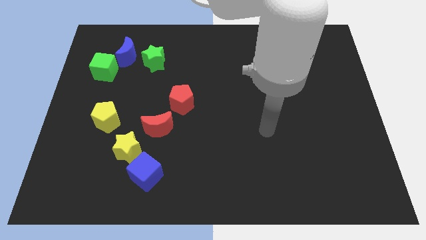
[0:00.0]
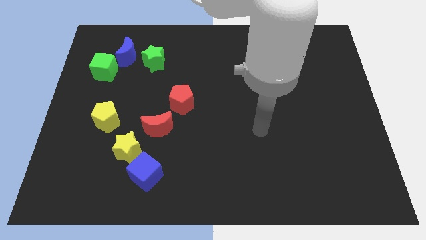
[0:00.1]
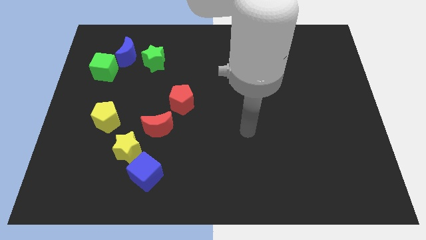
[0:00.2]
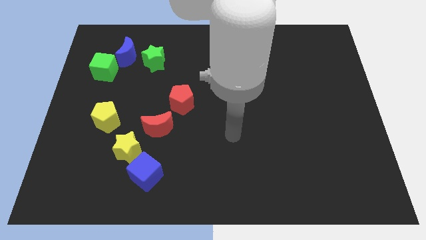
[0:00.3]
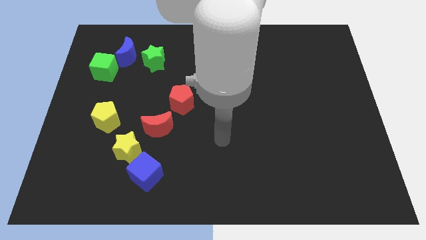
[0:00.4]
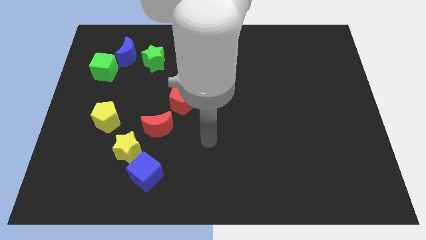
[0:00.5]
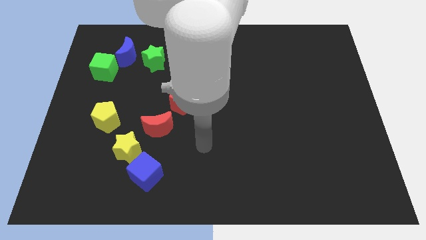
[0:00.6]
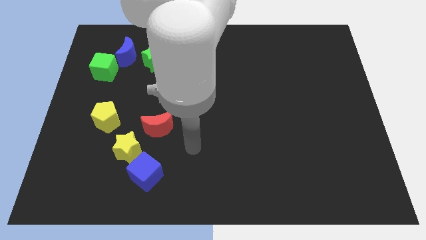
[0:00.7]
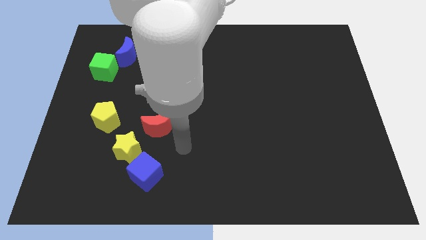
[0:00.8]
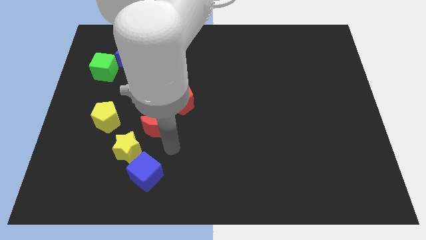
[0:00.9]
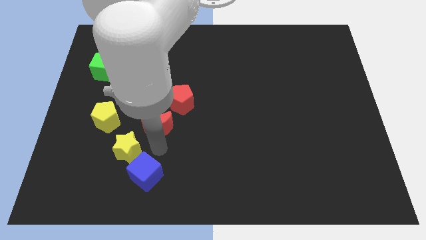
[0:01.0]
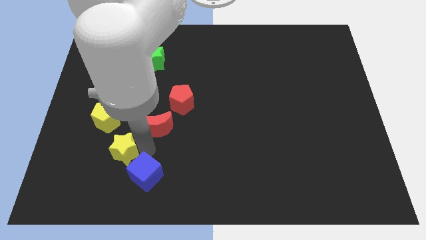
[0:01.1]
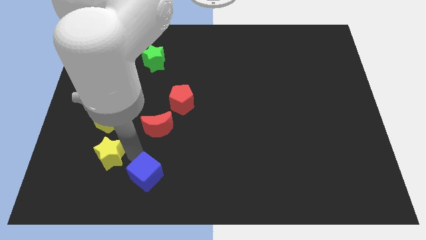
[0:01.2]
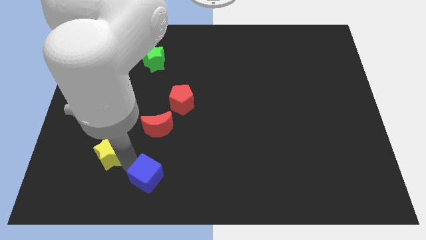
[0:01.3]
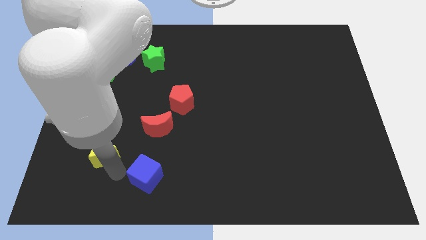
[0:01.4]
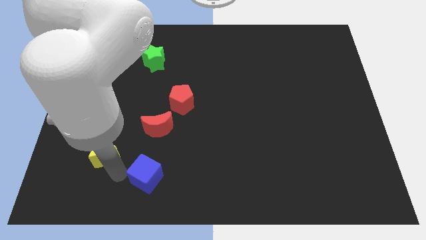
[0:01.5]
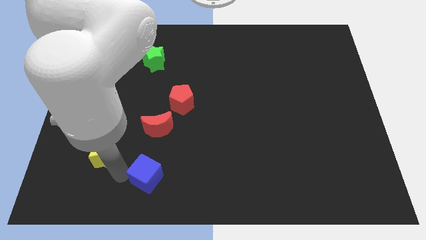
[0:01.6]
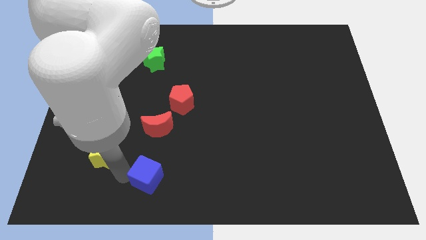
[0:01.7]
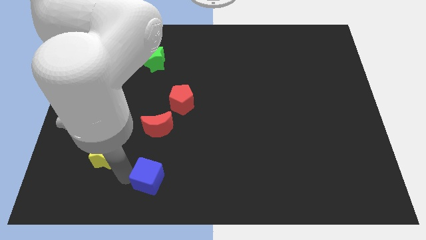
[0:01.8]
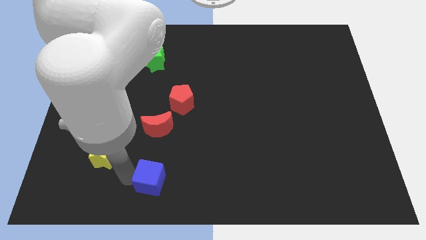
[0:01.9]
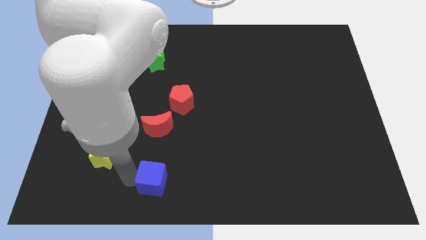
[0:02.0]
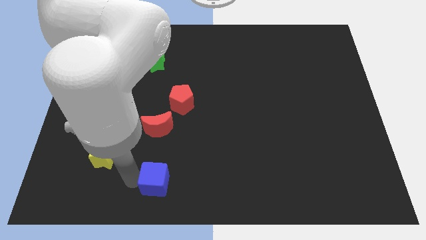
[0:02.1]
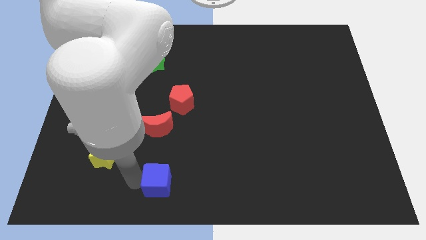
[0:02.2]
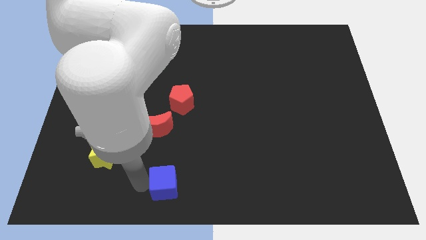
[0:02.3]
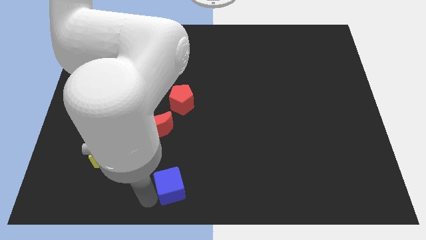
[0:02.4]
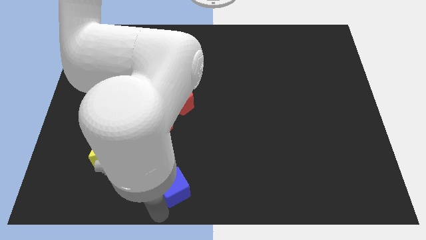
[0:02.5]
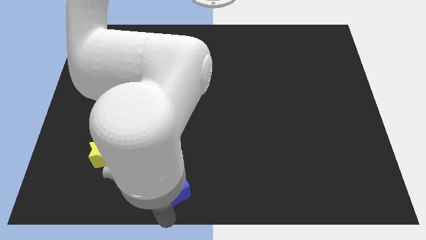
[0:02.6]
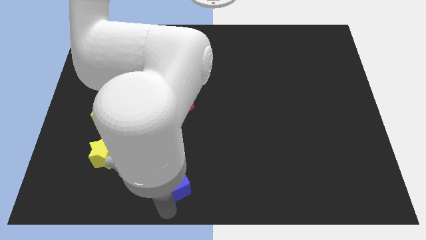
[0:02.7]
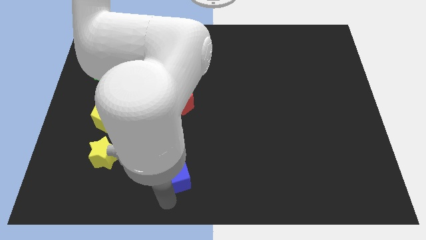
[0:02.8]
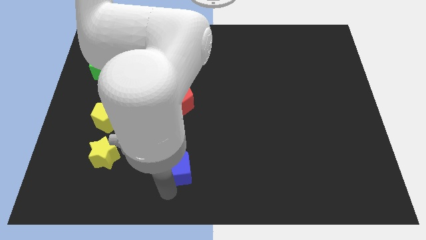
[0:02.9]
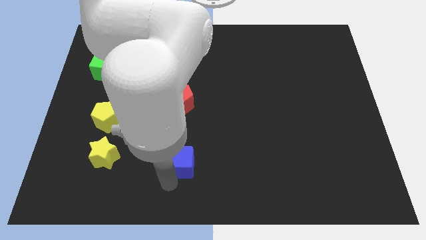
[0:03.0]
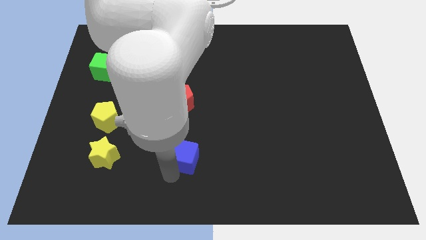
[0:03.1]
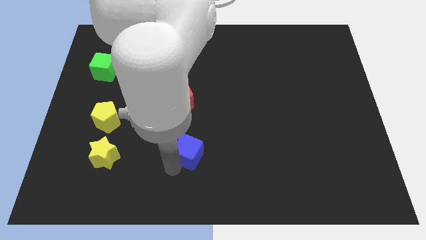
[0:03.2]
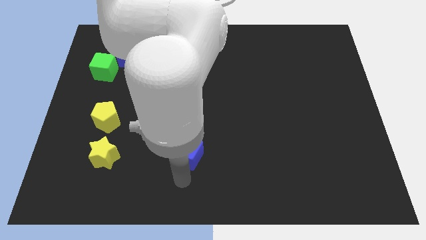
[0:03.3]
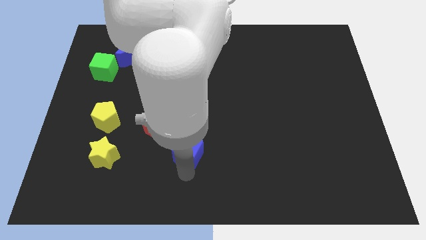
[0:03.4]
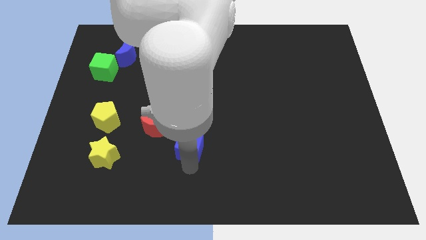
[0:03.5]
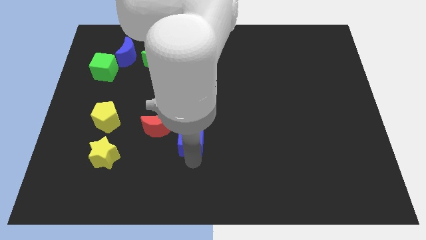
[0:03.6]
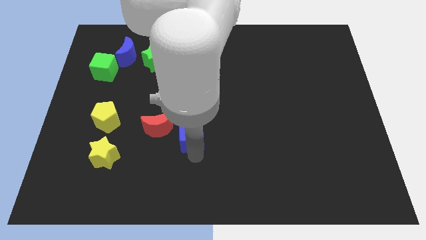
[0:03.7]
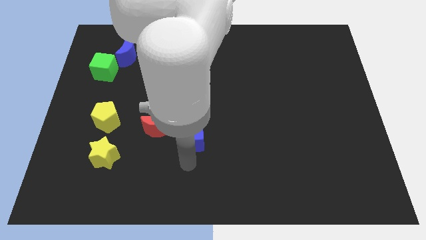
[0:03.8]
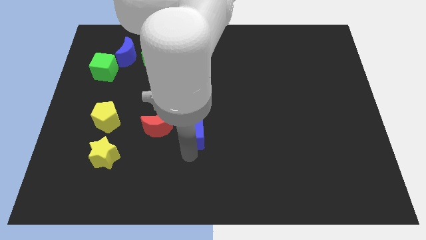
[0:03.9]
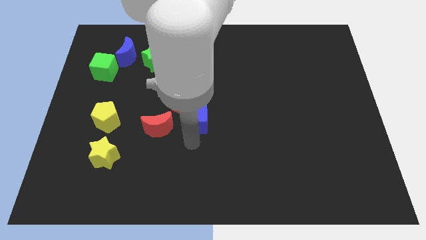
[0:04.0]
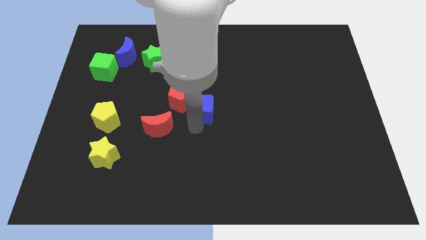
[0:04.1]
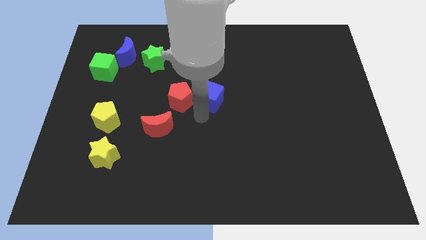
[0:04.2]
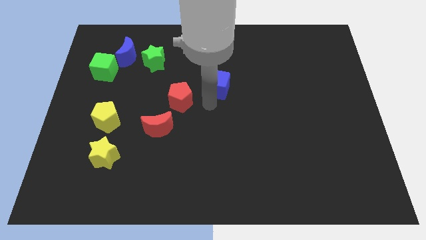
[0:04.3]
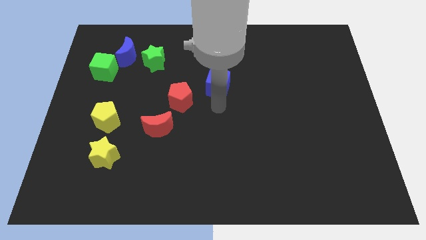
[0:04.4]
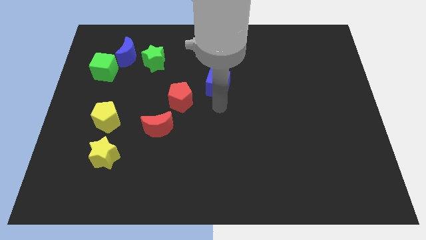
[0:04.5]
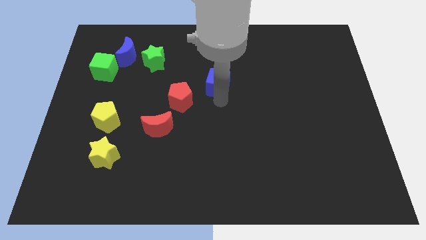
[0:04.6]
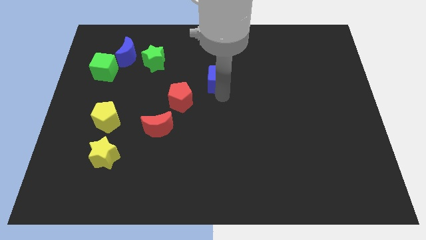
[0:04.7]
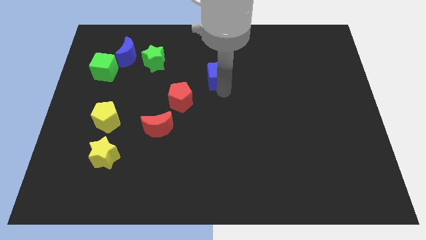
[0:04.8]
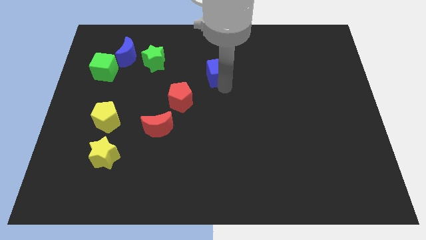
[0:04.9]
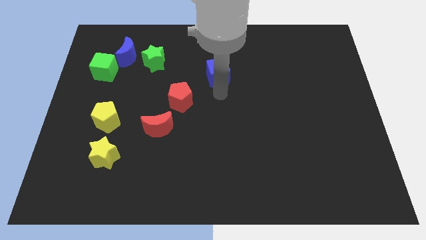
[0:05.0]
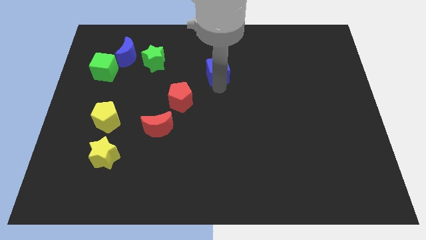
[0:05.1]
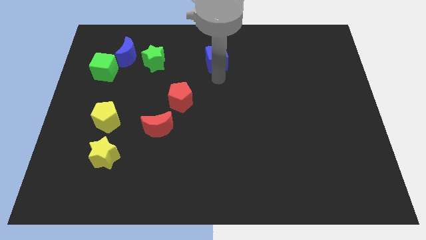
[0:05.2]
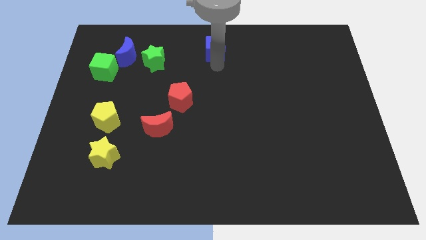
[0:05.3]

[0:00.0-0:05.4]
slide the blue cube to the top side
